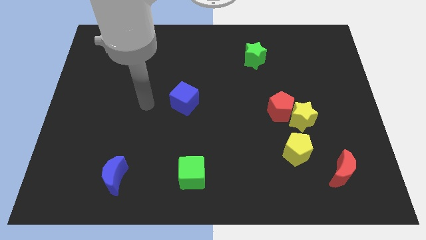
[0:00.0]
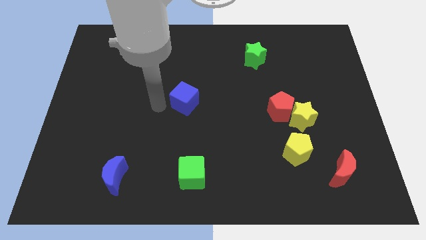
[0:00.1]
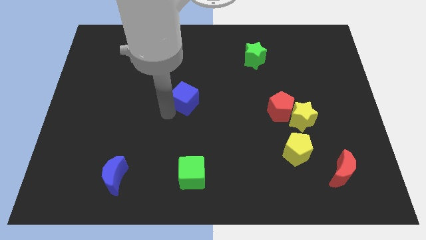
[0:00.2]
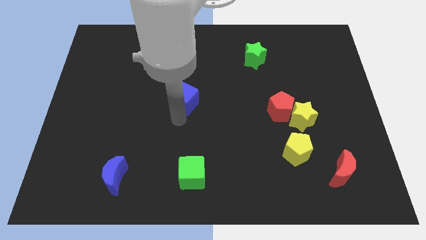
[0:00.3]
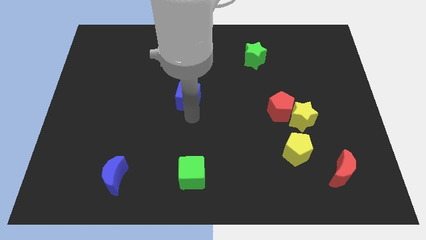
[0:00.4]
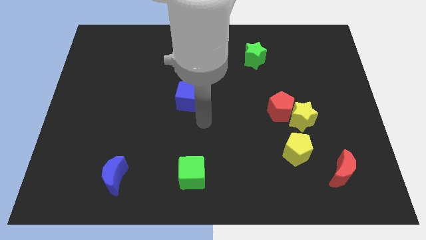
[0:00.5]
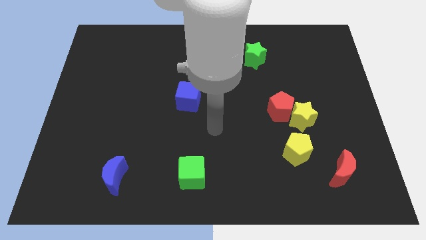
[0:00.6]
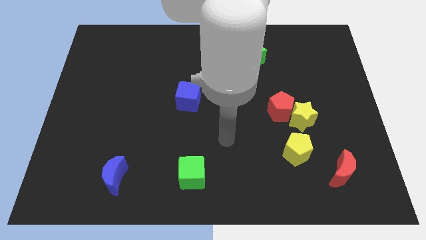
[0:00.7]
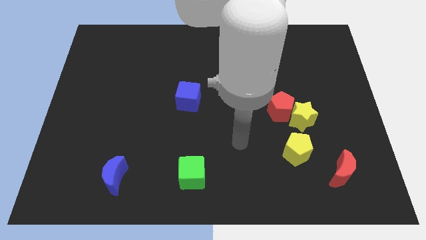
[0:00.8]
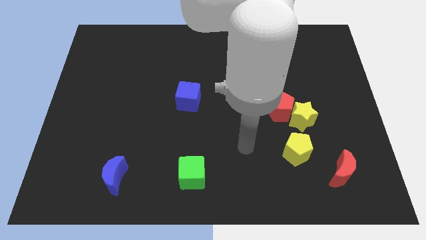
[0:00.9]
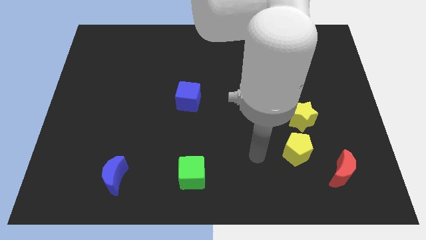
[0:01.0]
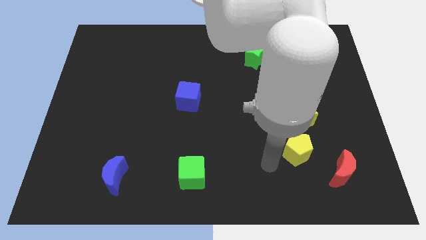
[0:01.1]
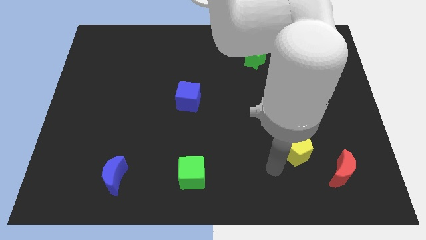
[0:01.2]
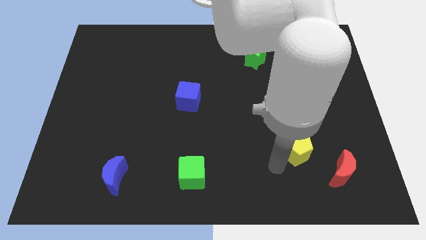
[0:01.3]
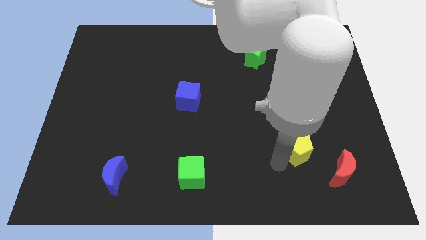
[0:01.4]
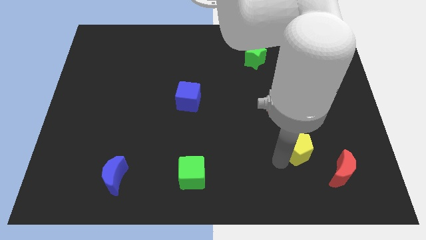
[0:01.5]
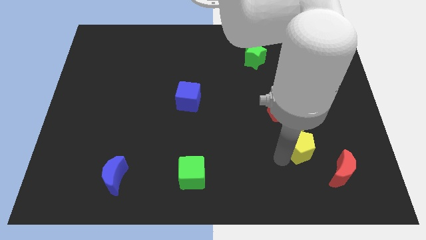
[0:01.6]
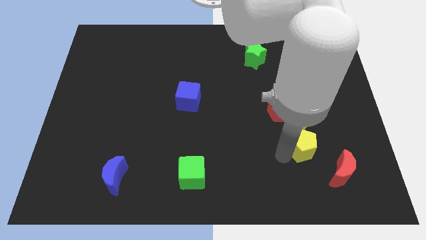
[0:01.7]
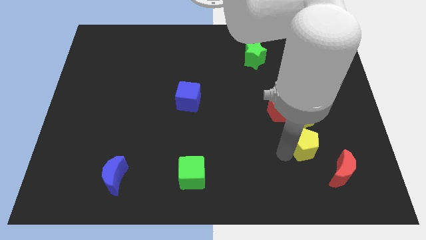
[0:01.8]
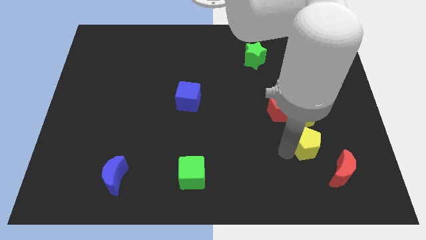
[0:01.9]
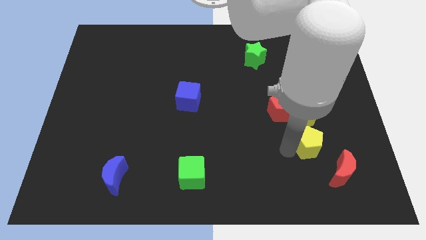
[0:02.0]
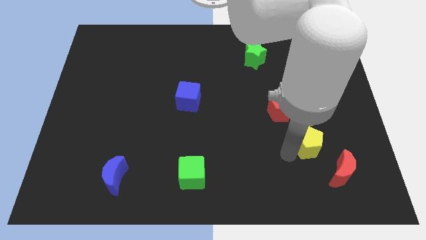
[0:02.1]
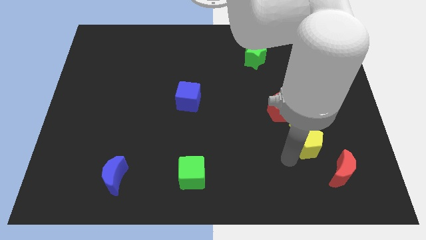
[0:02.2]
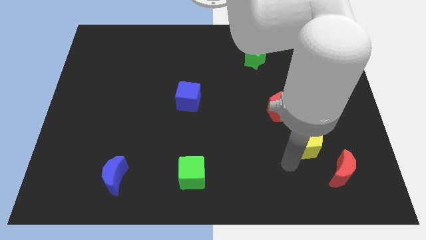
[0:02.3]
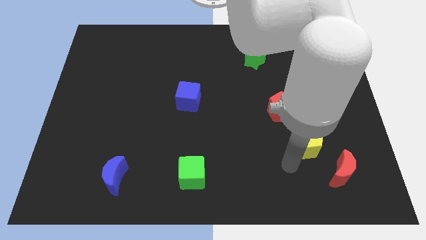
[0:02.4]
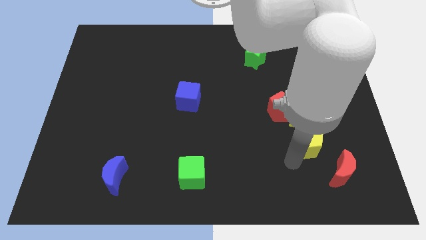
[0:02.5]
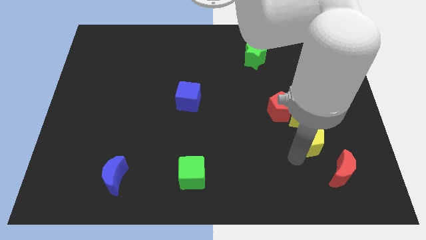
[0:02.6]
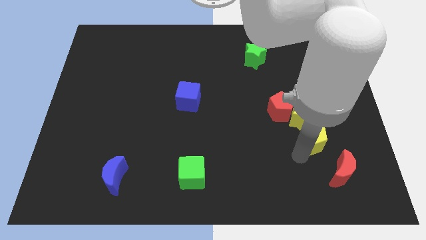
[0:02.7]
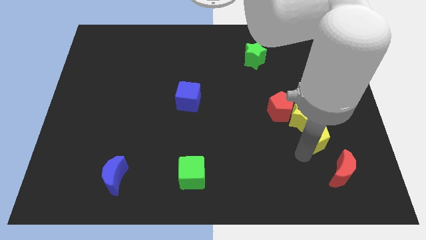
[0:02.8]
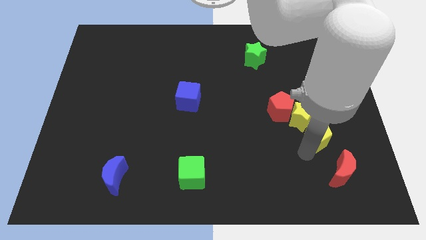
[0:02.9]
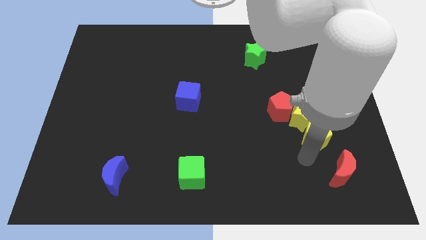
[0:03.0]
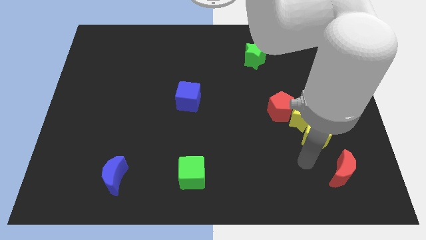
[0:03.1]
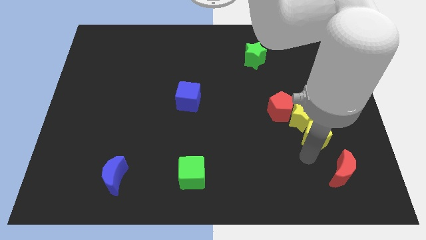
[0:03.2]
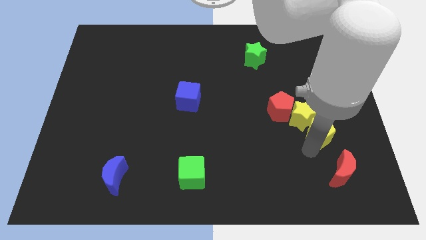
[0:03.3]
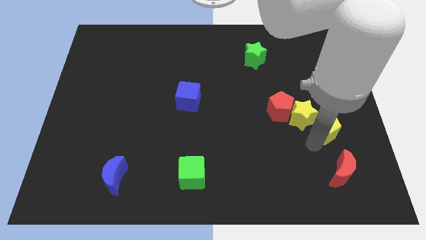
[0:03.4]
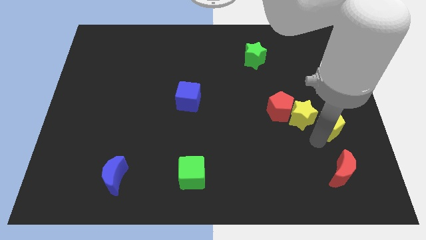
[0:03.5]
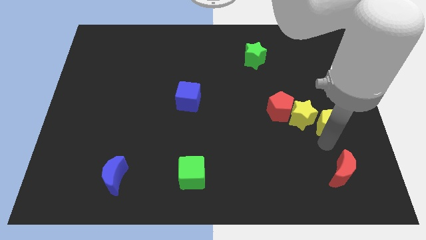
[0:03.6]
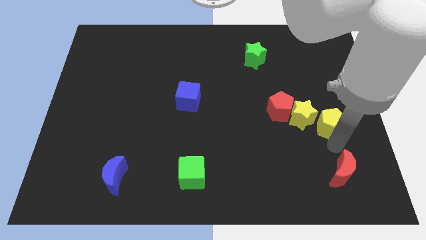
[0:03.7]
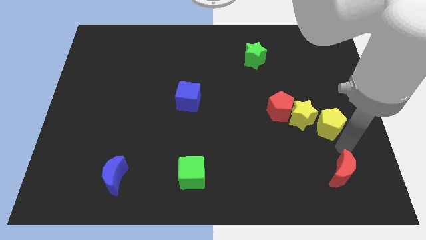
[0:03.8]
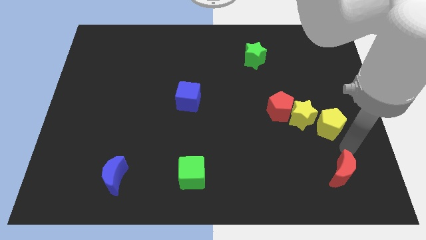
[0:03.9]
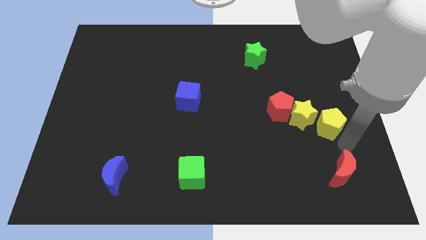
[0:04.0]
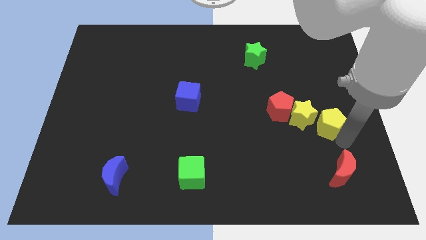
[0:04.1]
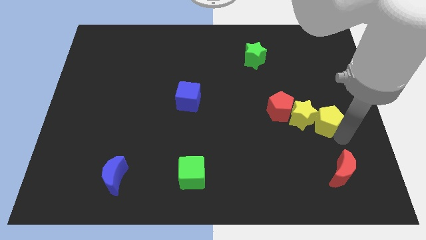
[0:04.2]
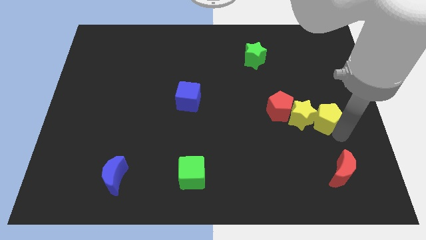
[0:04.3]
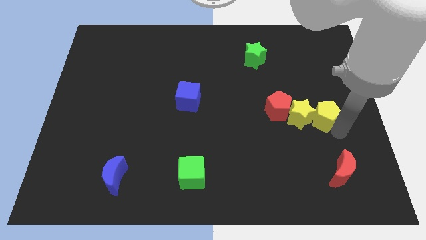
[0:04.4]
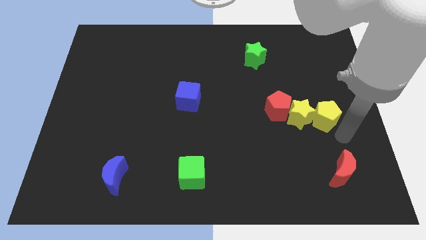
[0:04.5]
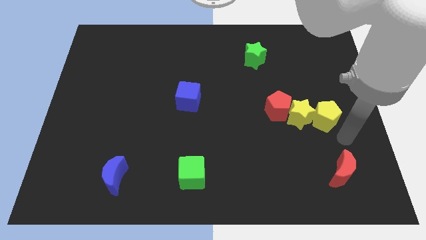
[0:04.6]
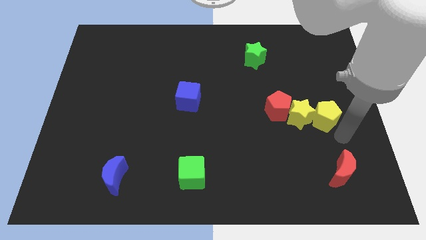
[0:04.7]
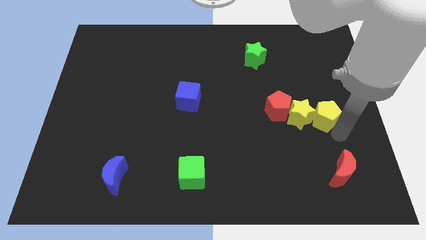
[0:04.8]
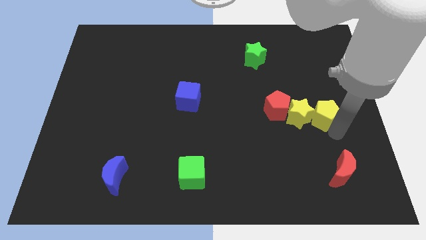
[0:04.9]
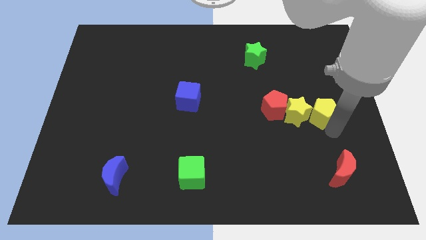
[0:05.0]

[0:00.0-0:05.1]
slide the yellow pentagon slightly upwards

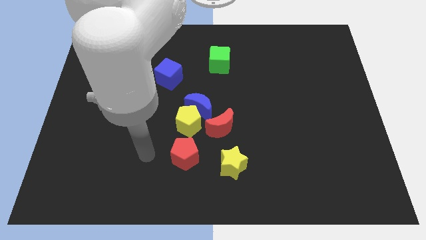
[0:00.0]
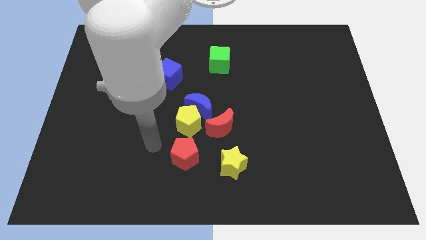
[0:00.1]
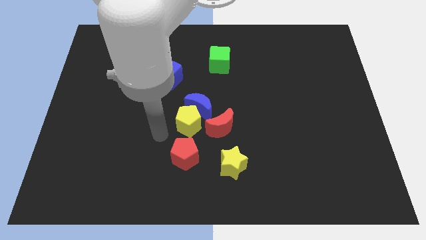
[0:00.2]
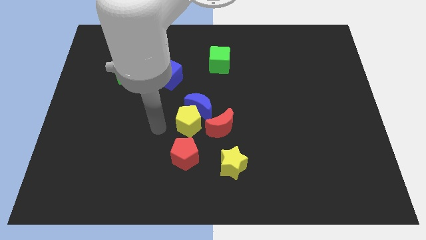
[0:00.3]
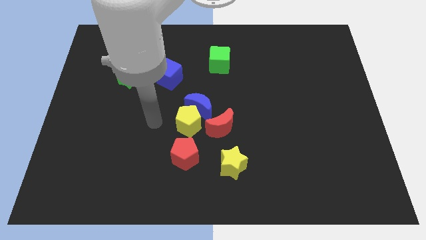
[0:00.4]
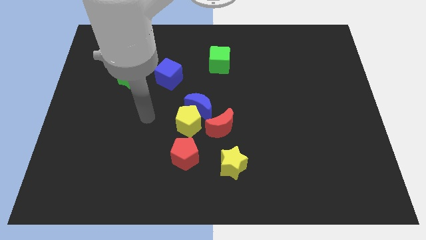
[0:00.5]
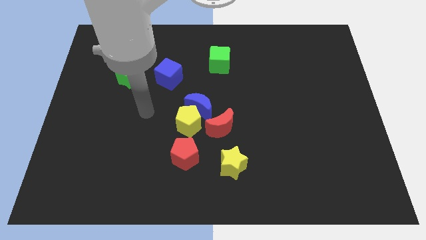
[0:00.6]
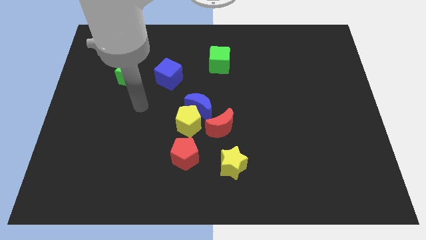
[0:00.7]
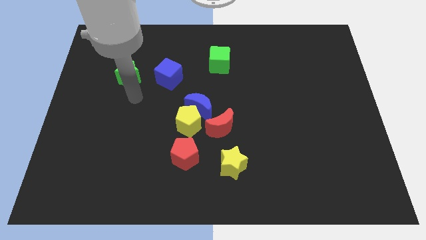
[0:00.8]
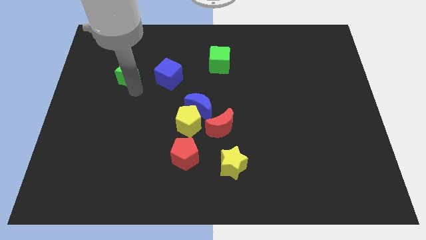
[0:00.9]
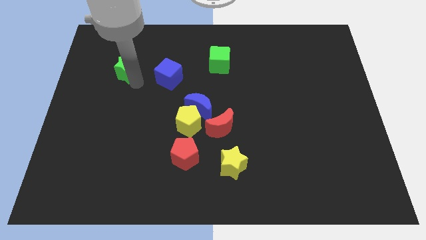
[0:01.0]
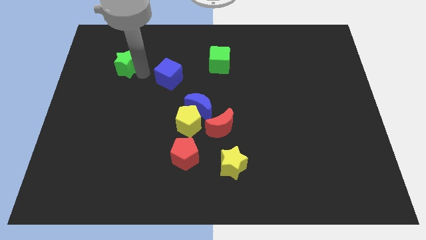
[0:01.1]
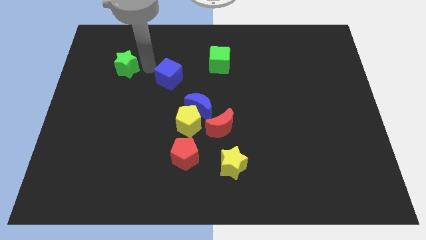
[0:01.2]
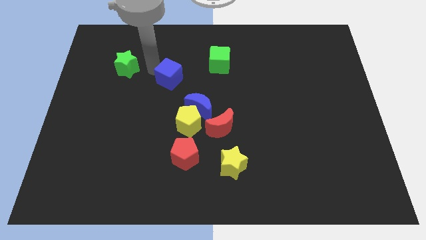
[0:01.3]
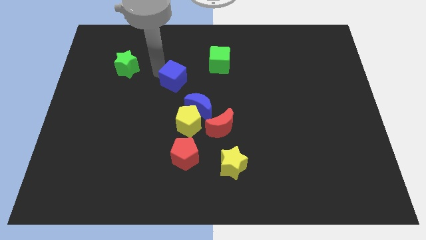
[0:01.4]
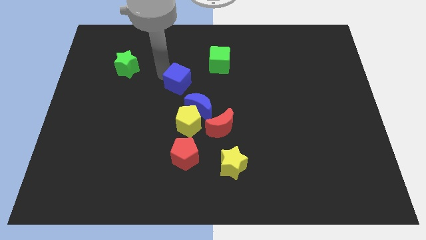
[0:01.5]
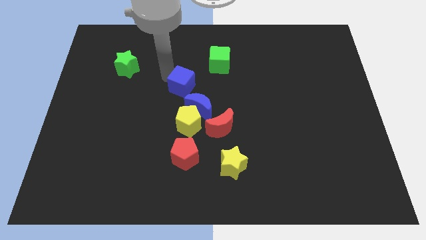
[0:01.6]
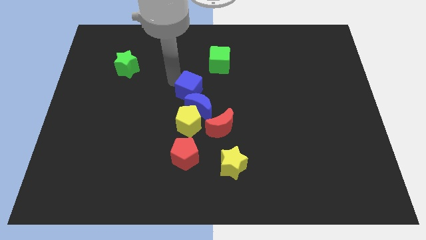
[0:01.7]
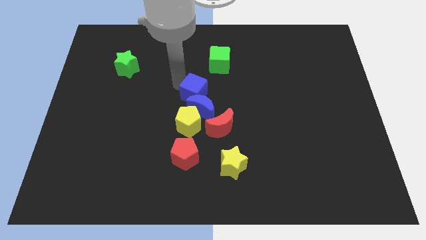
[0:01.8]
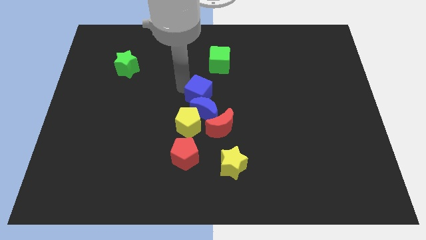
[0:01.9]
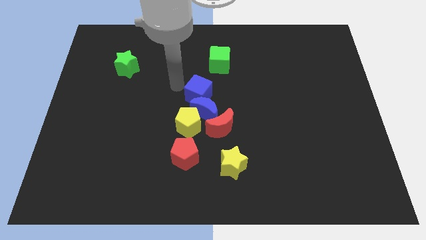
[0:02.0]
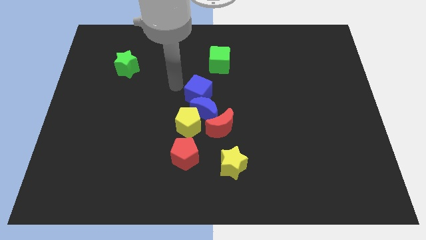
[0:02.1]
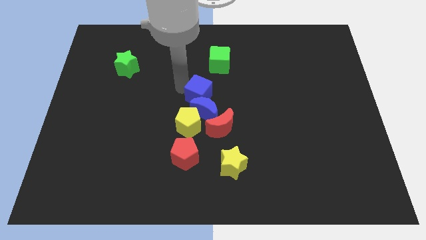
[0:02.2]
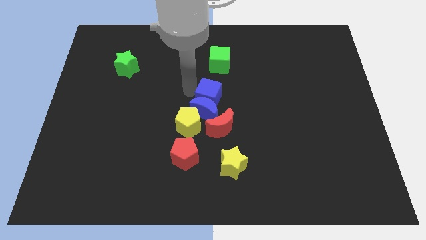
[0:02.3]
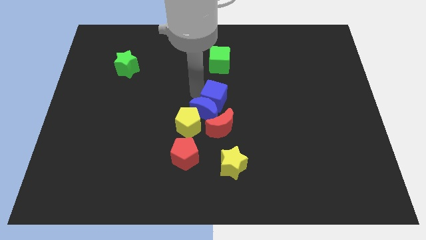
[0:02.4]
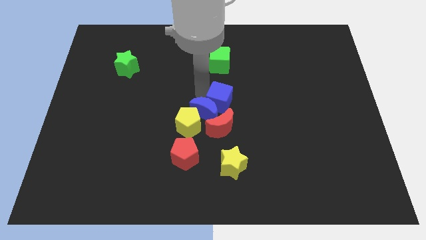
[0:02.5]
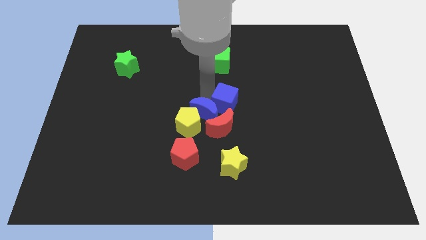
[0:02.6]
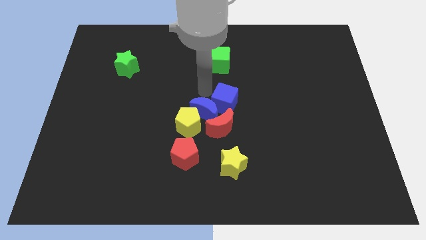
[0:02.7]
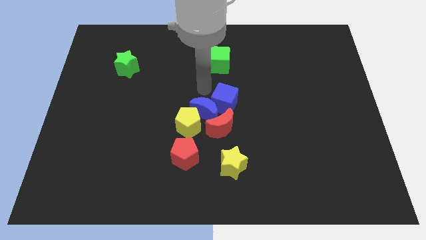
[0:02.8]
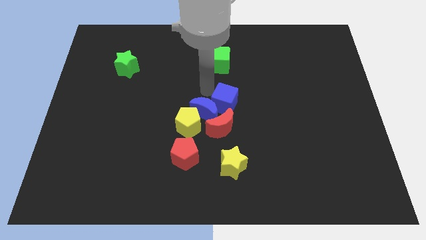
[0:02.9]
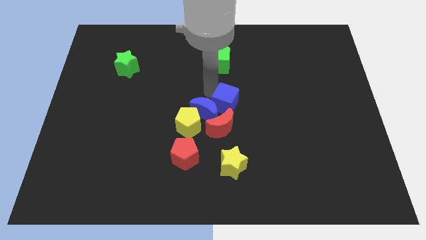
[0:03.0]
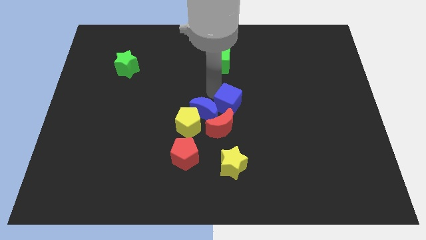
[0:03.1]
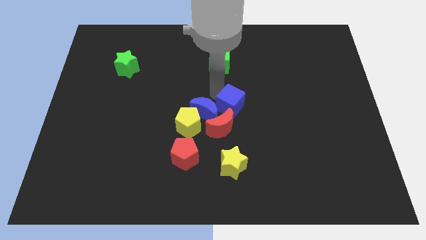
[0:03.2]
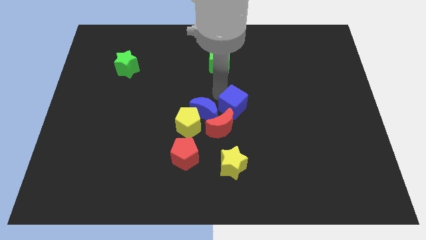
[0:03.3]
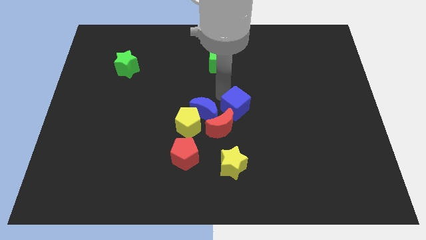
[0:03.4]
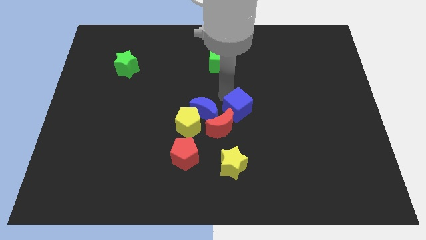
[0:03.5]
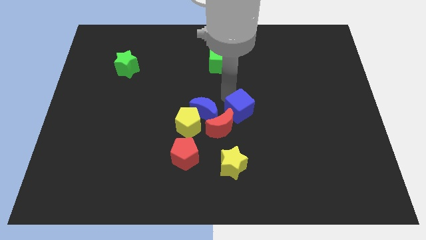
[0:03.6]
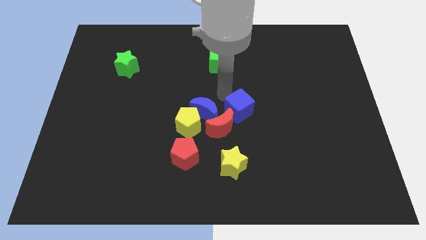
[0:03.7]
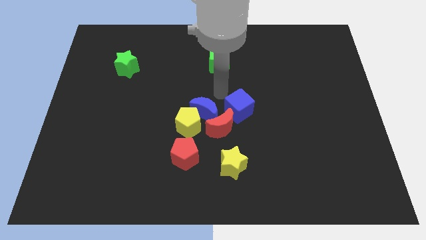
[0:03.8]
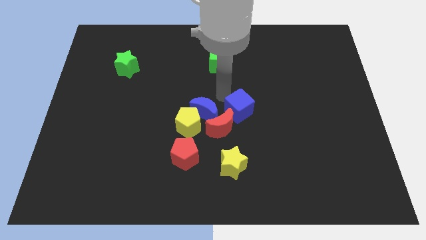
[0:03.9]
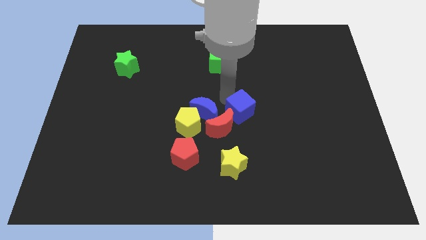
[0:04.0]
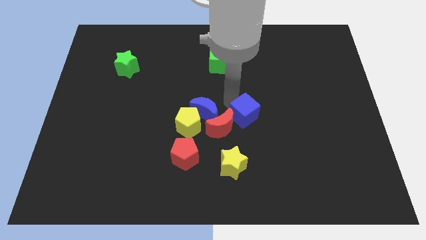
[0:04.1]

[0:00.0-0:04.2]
slide the blue cube downwards and right diagonally
